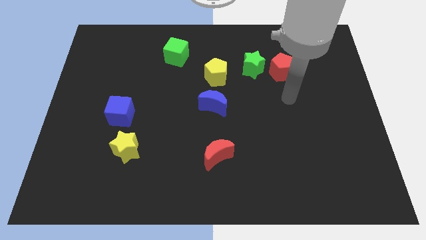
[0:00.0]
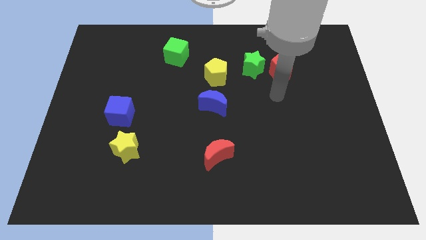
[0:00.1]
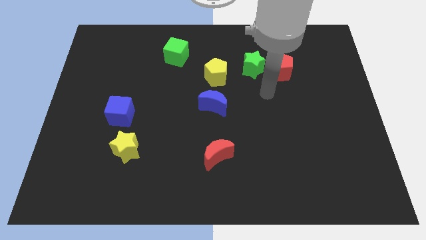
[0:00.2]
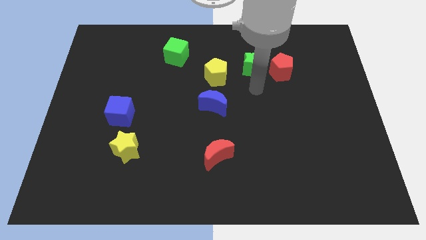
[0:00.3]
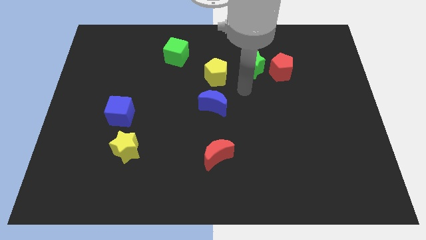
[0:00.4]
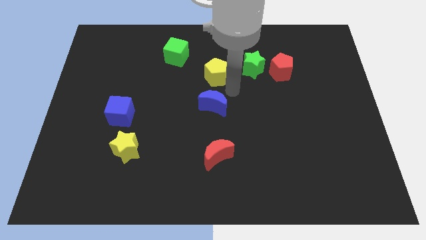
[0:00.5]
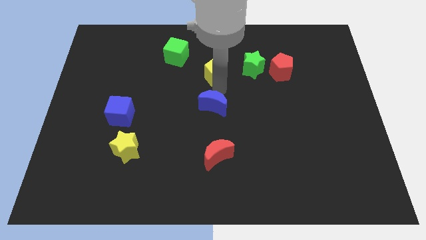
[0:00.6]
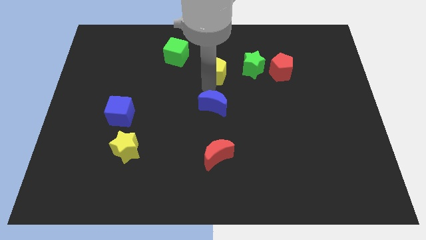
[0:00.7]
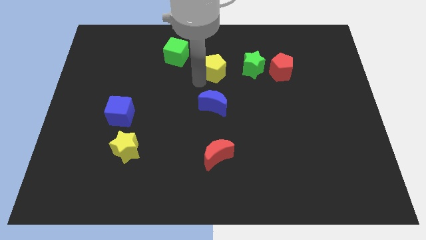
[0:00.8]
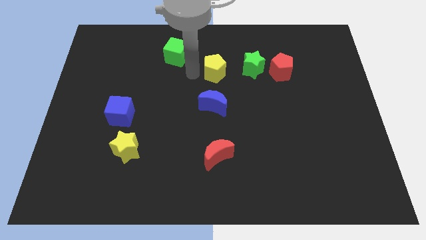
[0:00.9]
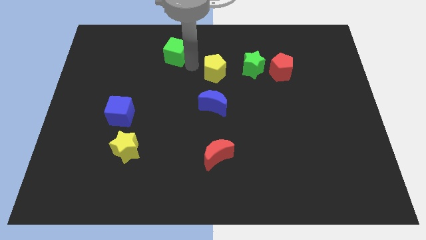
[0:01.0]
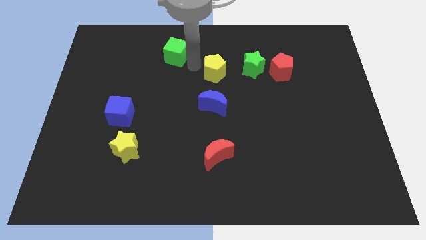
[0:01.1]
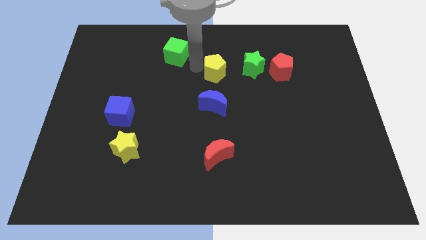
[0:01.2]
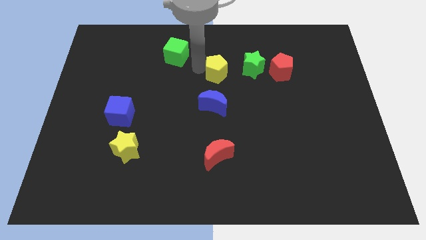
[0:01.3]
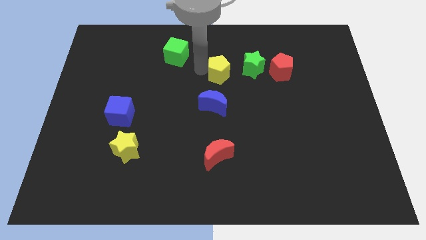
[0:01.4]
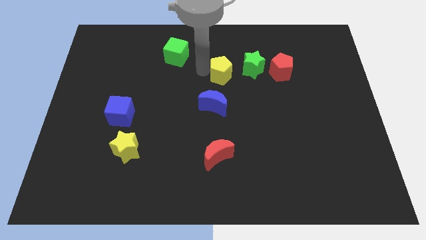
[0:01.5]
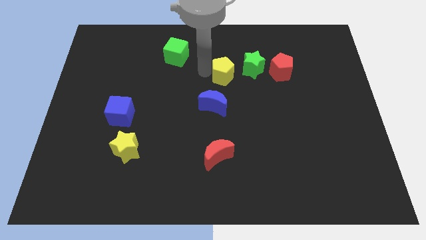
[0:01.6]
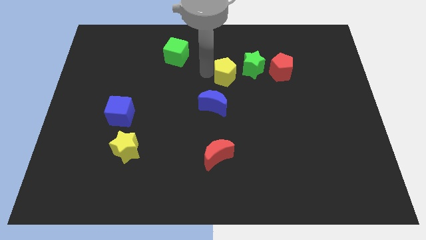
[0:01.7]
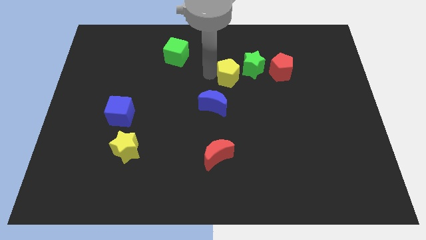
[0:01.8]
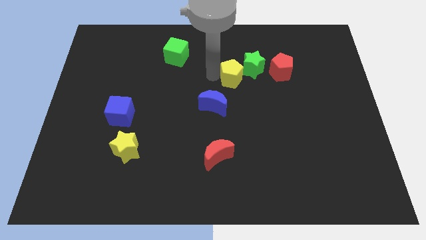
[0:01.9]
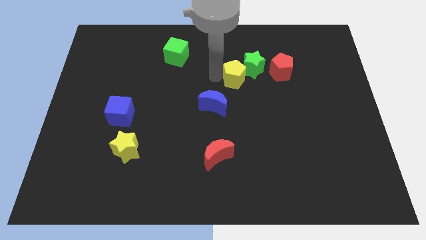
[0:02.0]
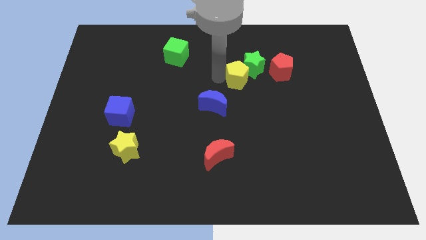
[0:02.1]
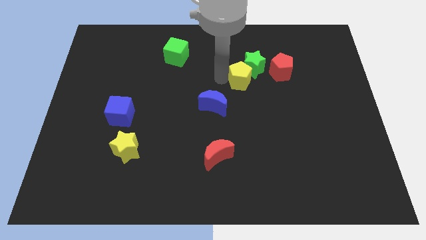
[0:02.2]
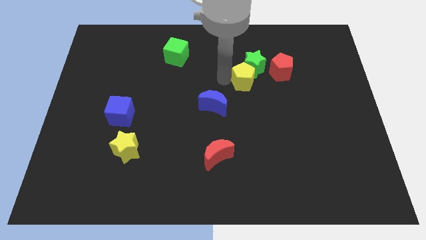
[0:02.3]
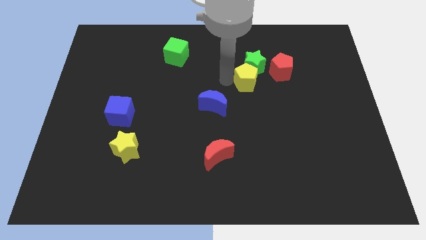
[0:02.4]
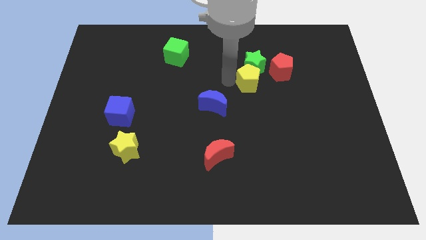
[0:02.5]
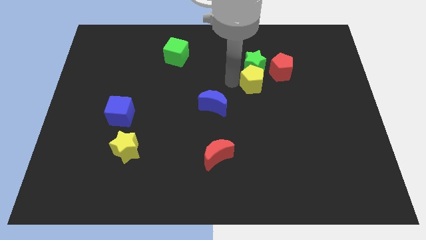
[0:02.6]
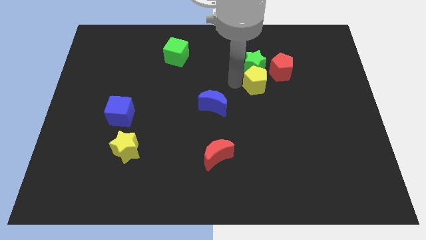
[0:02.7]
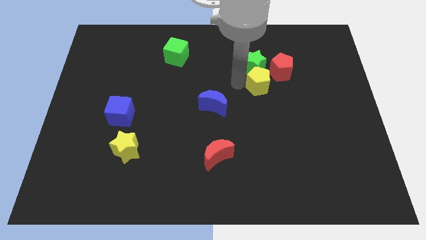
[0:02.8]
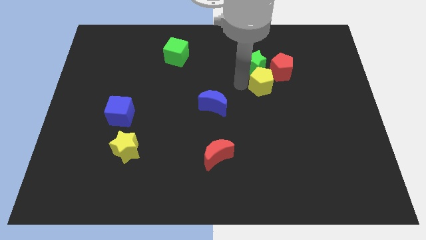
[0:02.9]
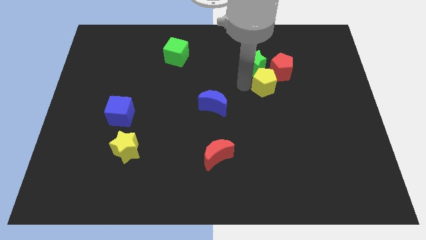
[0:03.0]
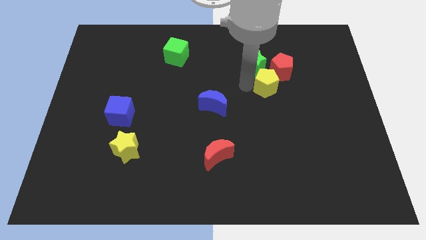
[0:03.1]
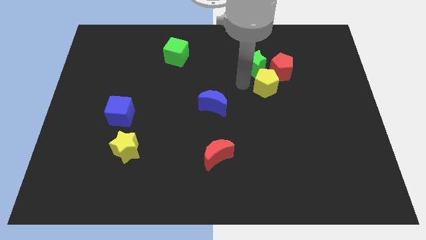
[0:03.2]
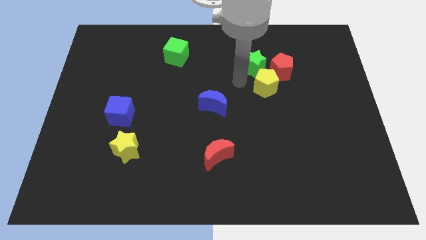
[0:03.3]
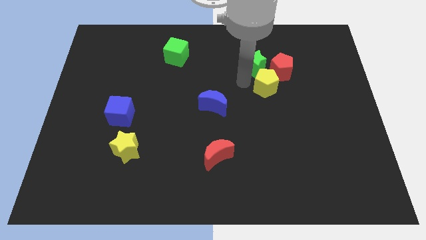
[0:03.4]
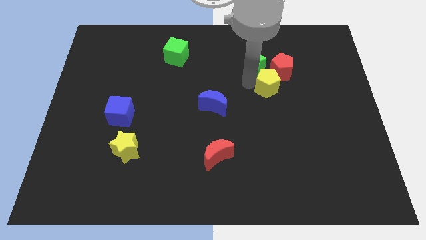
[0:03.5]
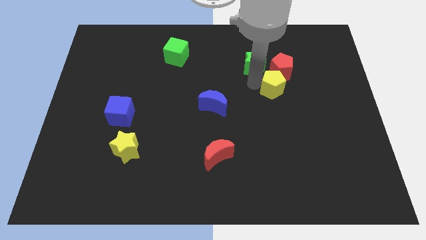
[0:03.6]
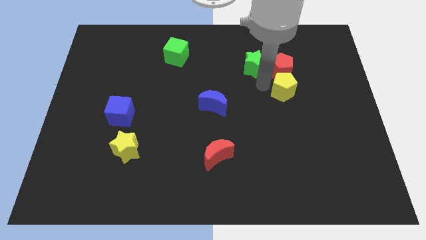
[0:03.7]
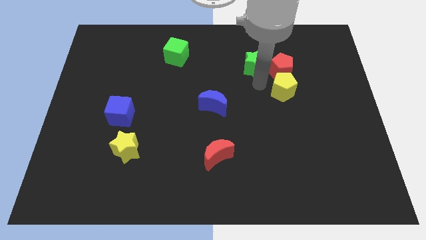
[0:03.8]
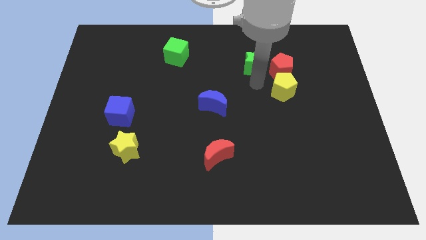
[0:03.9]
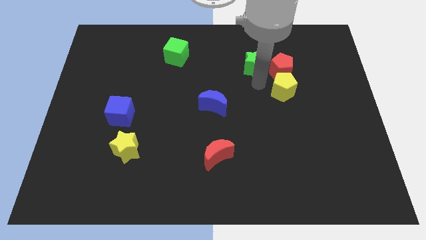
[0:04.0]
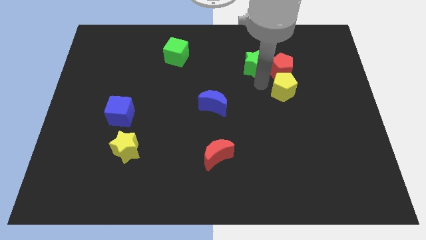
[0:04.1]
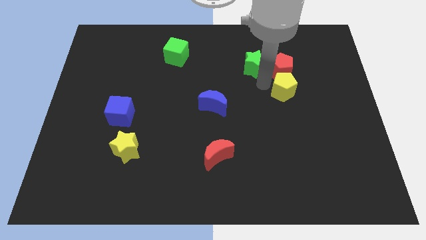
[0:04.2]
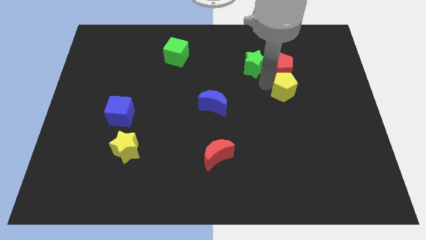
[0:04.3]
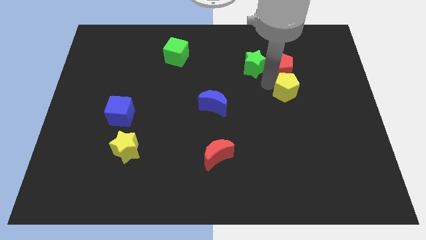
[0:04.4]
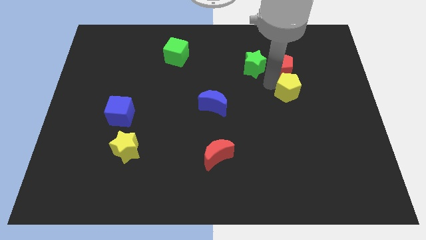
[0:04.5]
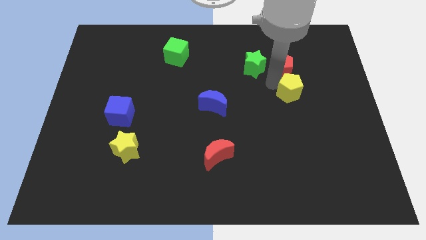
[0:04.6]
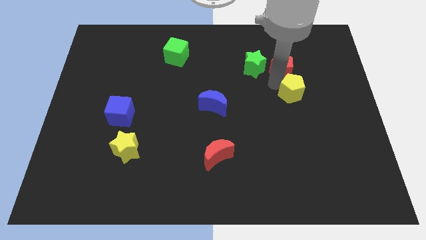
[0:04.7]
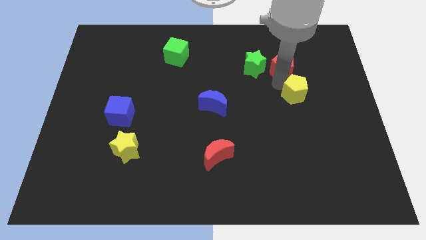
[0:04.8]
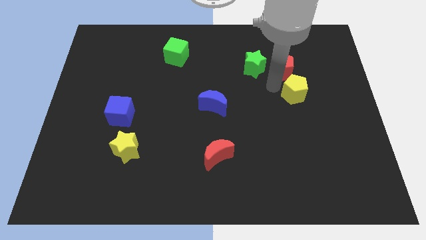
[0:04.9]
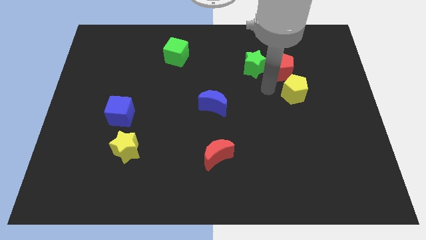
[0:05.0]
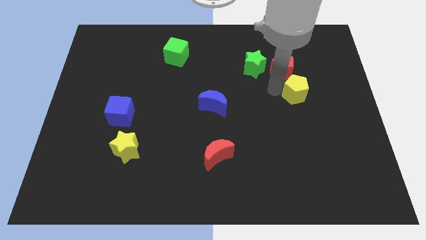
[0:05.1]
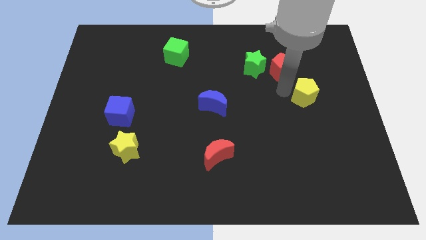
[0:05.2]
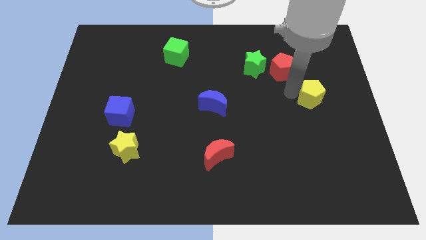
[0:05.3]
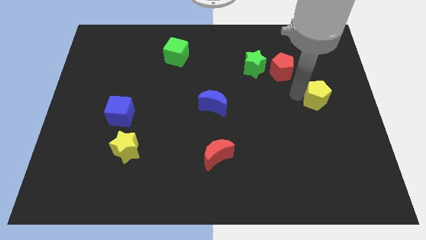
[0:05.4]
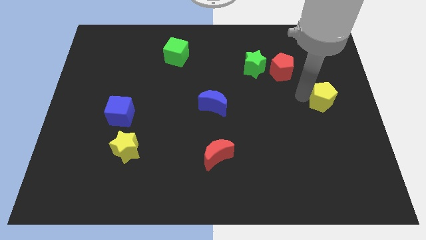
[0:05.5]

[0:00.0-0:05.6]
move the yellow pentagon to the right side

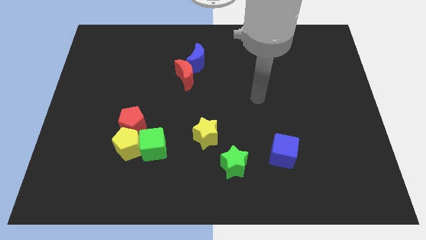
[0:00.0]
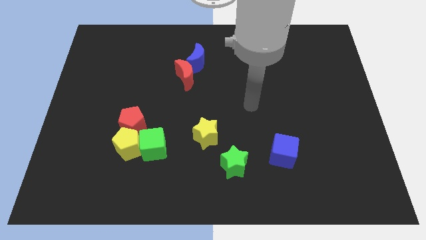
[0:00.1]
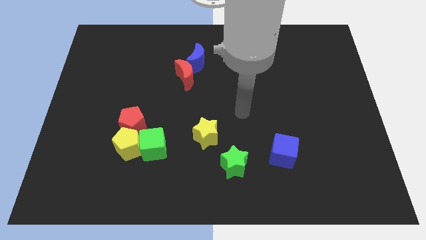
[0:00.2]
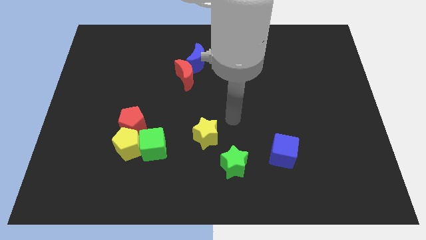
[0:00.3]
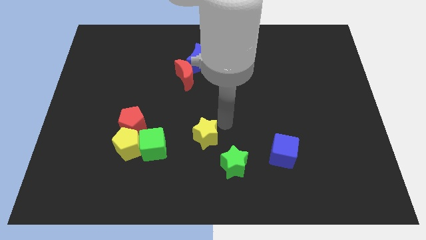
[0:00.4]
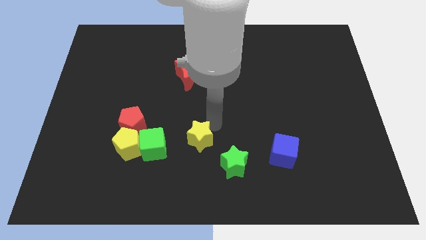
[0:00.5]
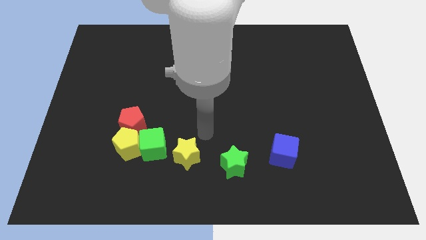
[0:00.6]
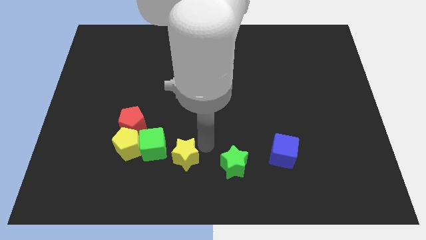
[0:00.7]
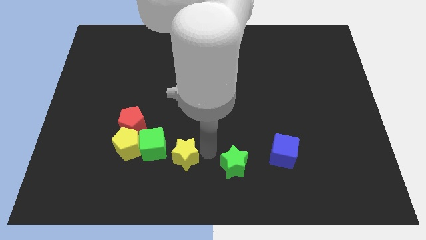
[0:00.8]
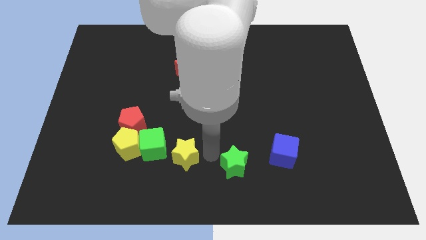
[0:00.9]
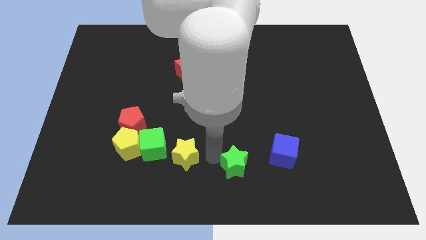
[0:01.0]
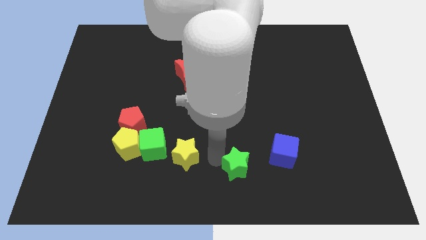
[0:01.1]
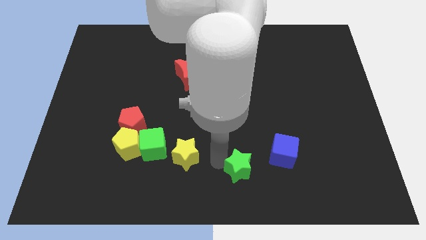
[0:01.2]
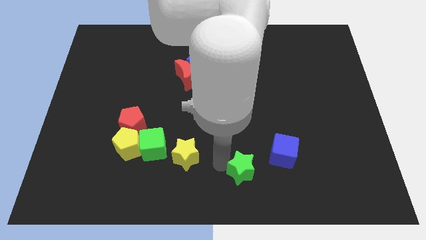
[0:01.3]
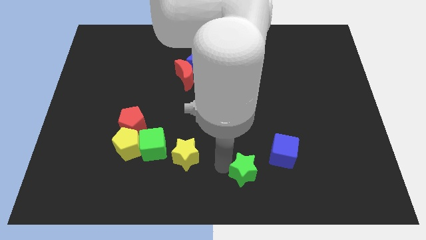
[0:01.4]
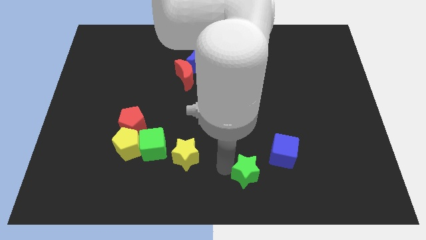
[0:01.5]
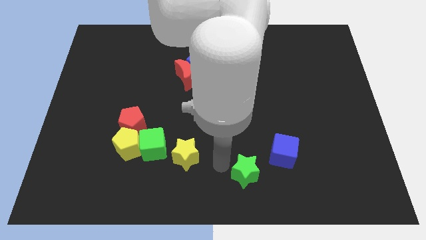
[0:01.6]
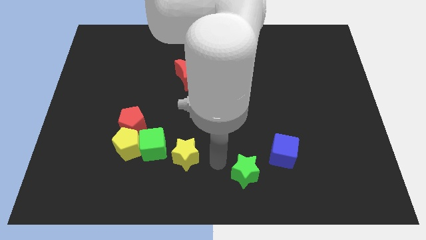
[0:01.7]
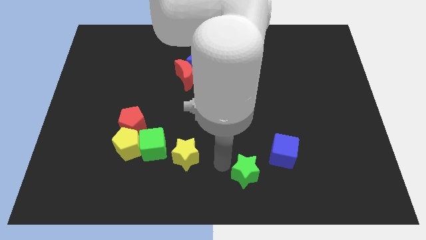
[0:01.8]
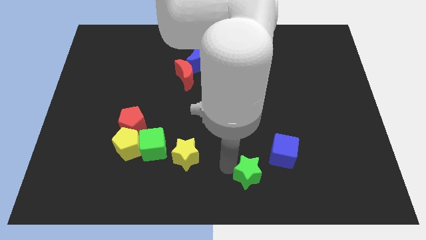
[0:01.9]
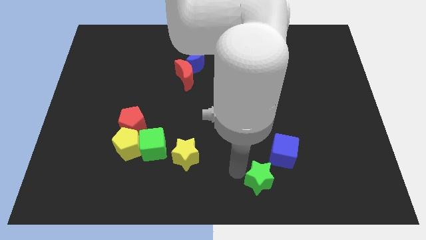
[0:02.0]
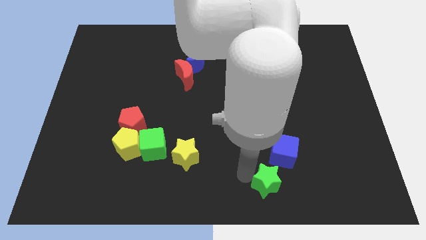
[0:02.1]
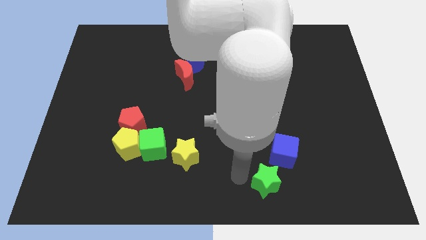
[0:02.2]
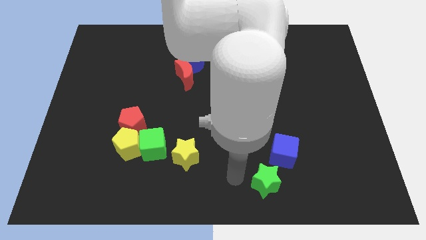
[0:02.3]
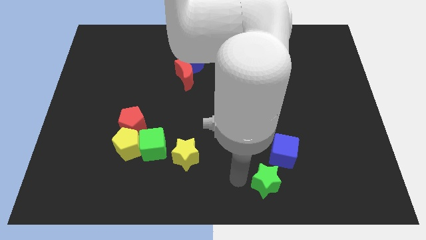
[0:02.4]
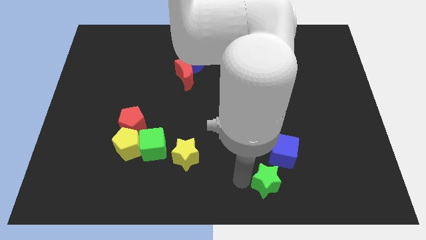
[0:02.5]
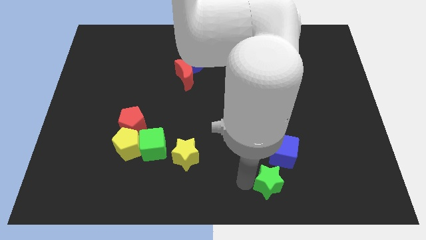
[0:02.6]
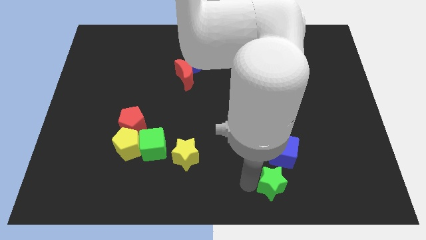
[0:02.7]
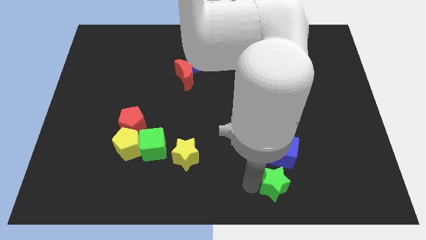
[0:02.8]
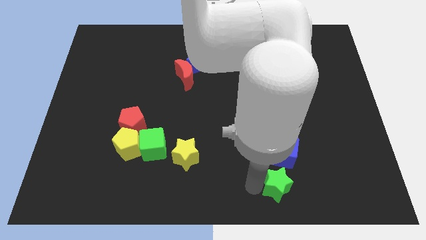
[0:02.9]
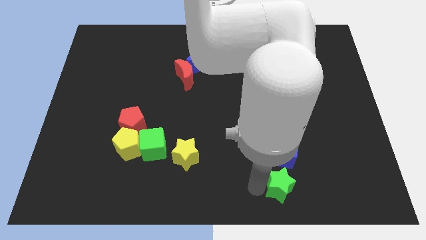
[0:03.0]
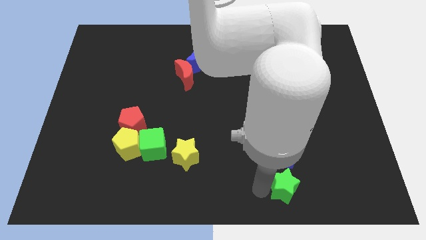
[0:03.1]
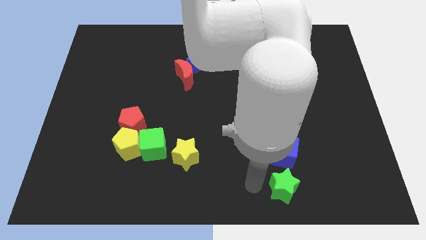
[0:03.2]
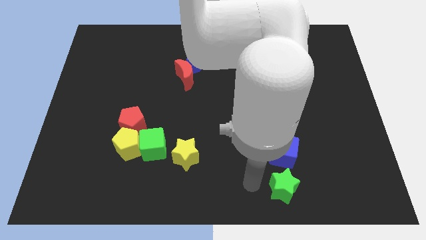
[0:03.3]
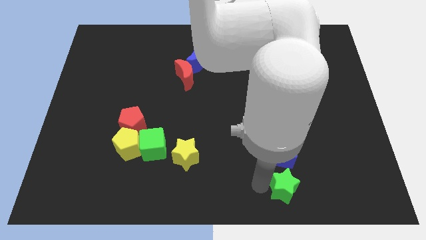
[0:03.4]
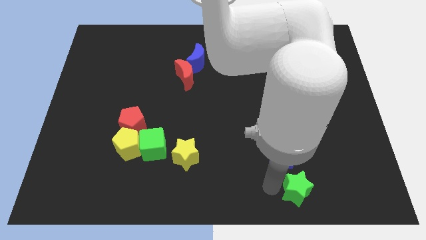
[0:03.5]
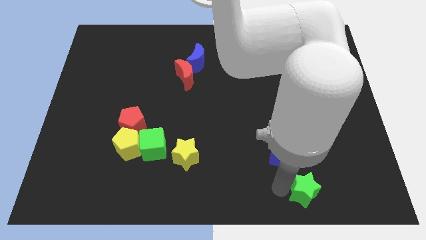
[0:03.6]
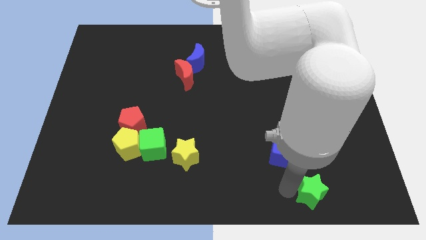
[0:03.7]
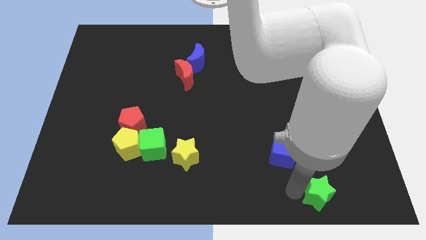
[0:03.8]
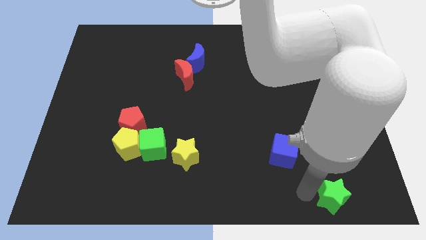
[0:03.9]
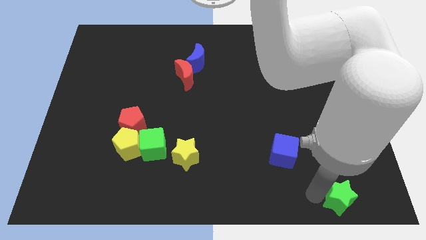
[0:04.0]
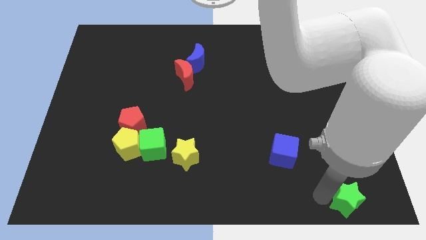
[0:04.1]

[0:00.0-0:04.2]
push the green star to the bottom right of the board
